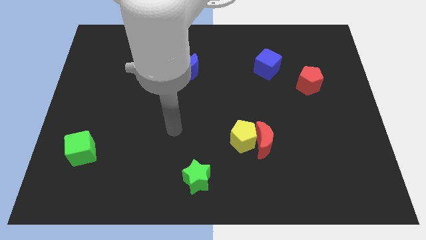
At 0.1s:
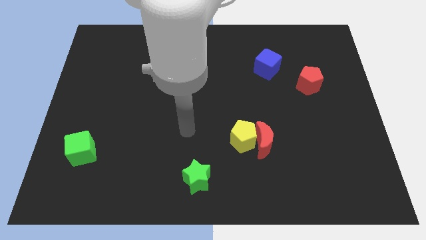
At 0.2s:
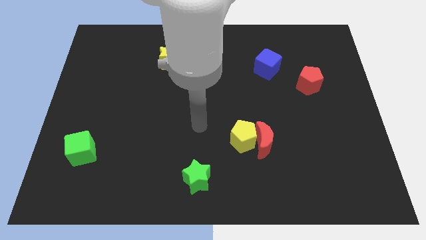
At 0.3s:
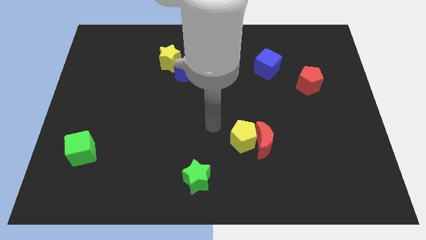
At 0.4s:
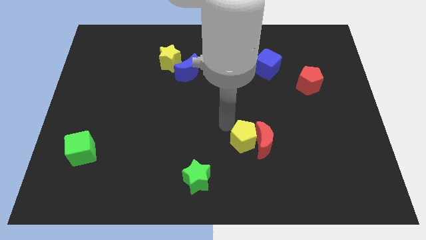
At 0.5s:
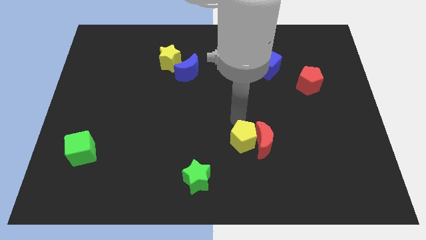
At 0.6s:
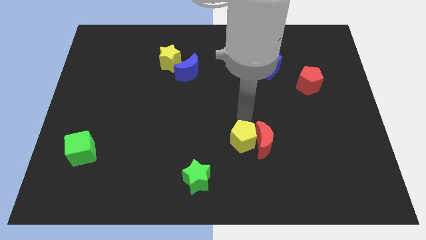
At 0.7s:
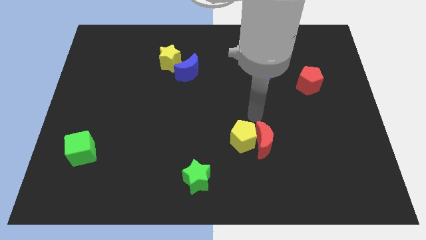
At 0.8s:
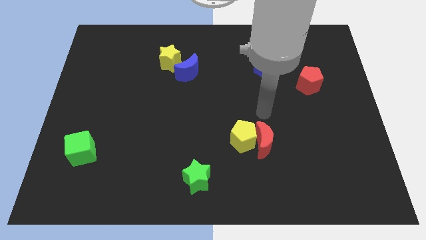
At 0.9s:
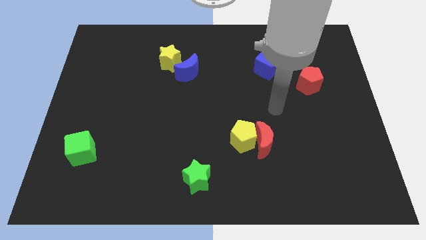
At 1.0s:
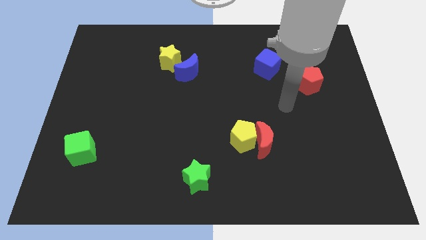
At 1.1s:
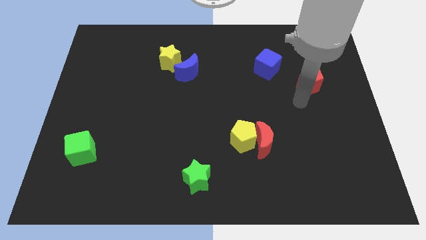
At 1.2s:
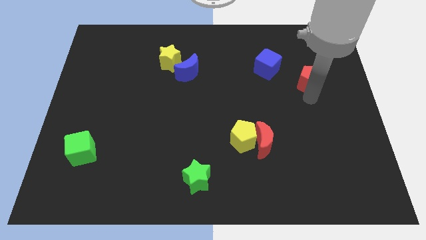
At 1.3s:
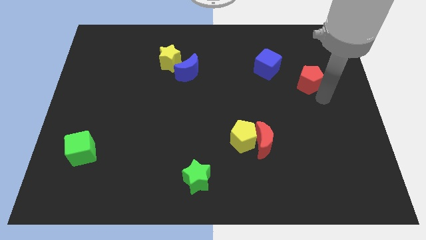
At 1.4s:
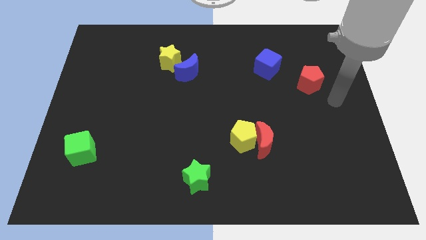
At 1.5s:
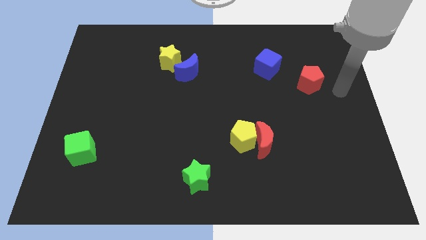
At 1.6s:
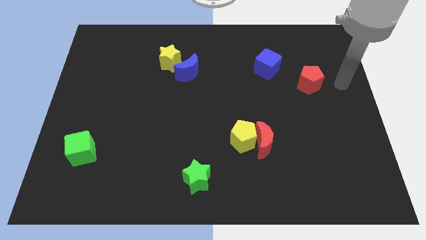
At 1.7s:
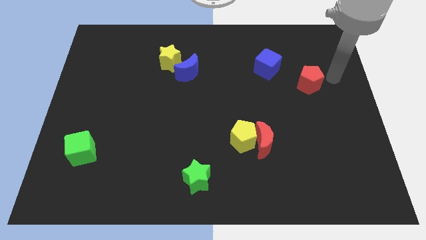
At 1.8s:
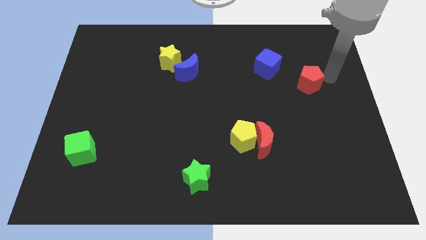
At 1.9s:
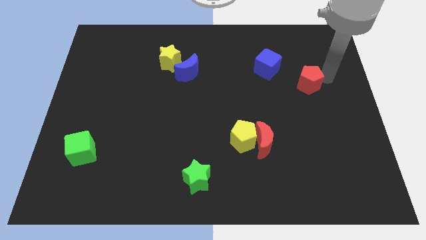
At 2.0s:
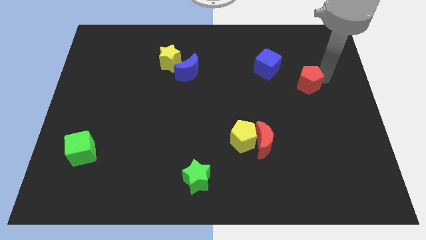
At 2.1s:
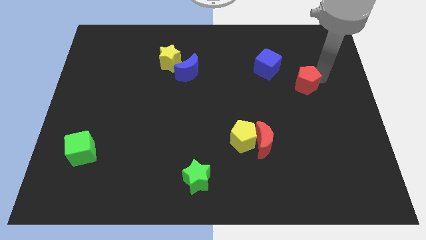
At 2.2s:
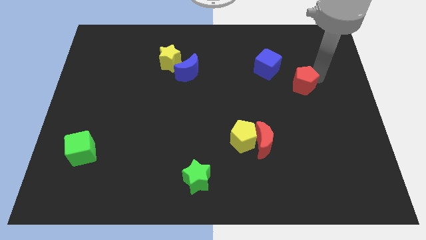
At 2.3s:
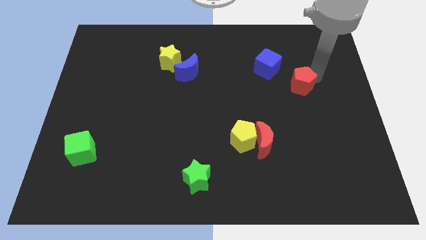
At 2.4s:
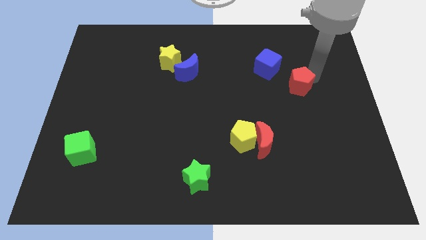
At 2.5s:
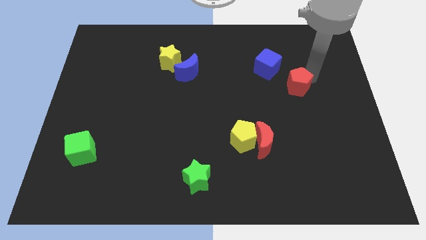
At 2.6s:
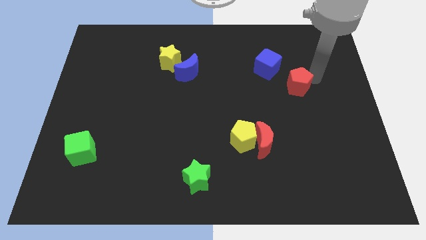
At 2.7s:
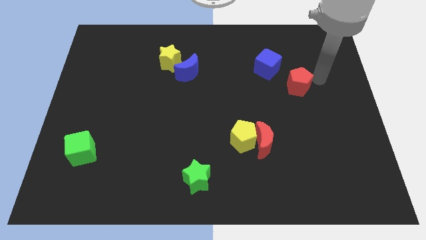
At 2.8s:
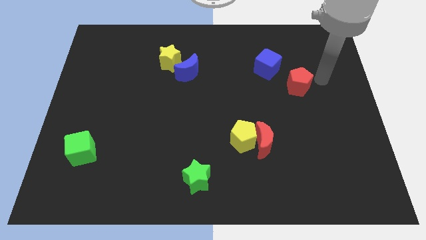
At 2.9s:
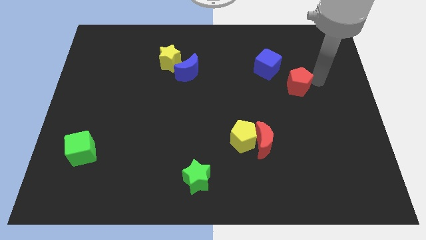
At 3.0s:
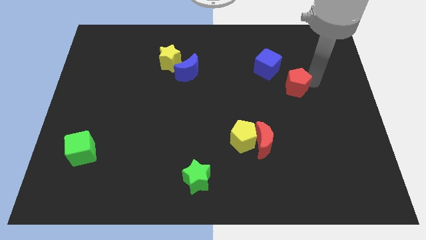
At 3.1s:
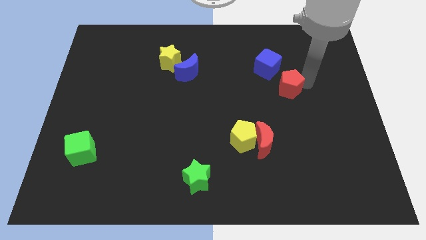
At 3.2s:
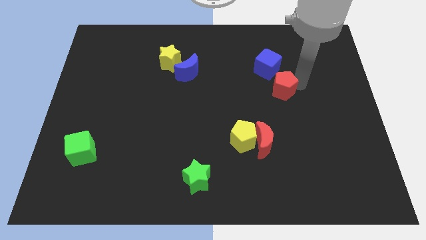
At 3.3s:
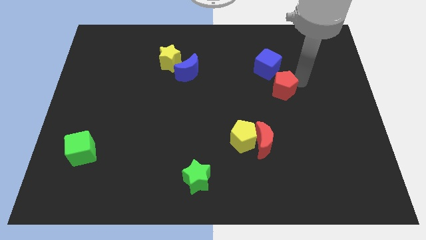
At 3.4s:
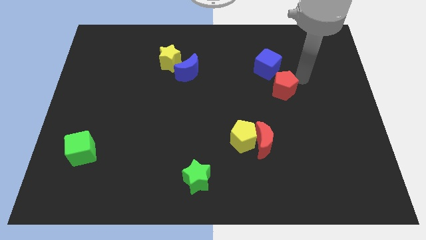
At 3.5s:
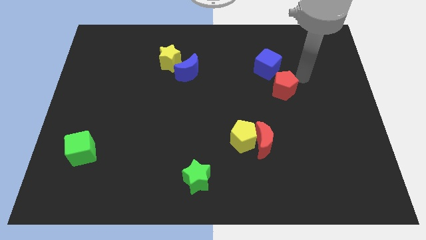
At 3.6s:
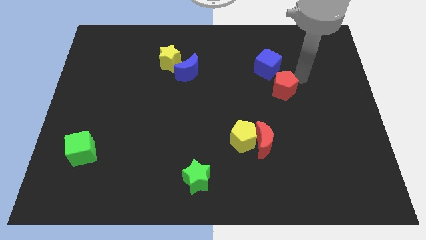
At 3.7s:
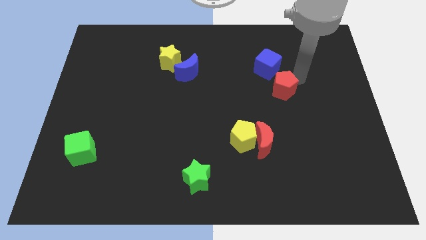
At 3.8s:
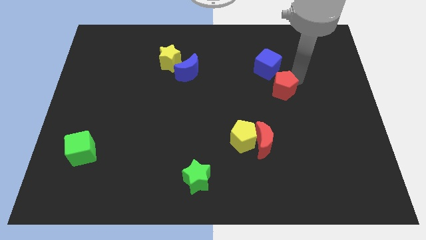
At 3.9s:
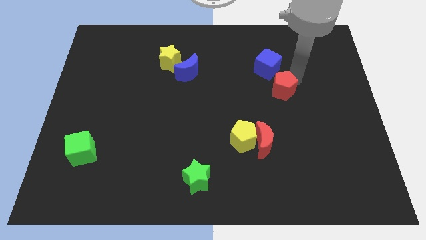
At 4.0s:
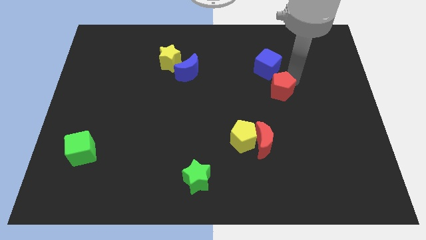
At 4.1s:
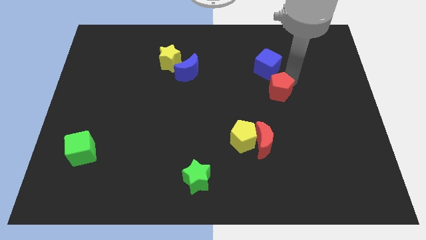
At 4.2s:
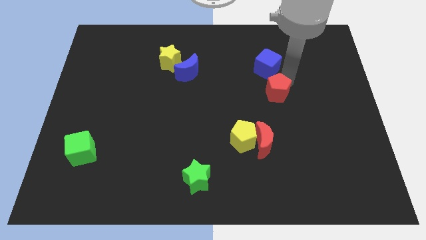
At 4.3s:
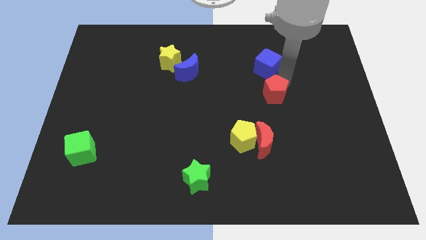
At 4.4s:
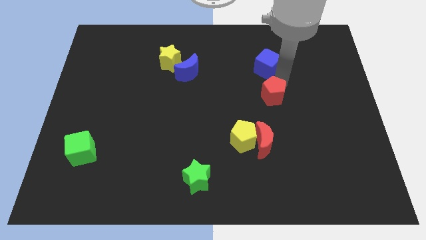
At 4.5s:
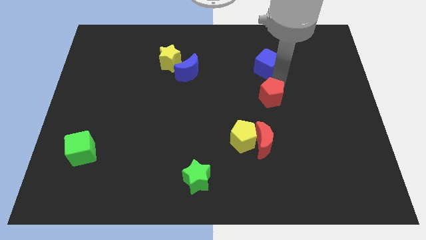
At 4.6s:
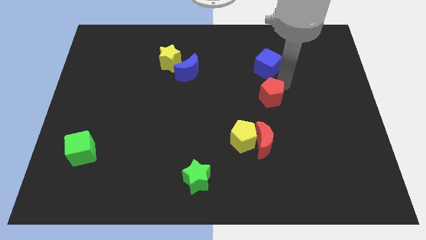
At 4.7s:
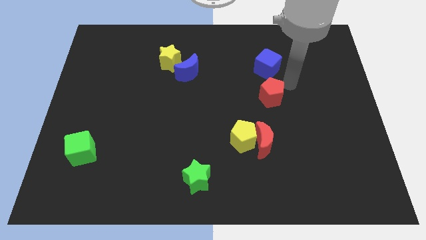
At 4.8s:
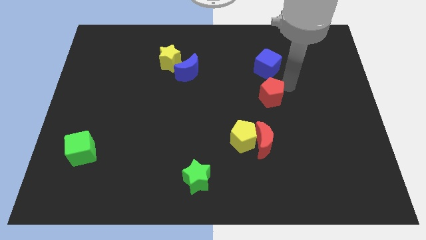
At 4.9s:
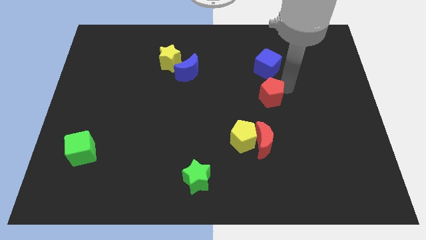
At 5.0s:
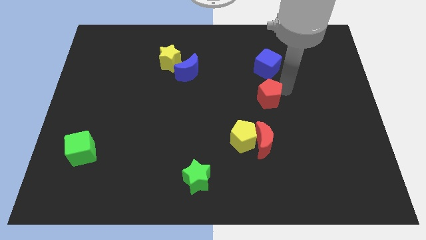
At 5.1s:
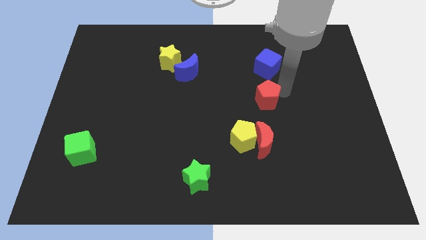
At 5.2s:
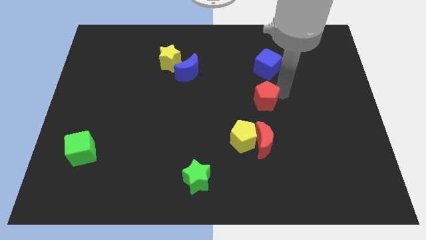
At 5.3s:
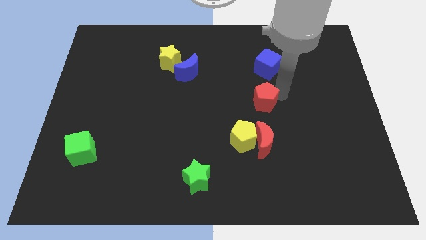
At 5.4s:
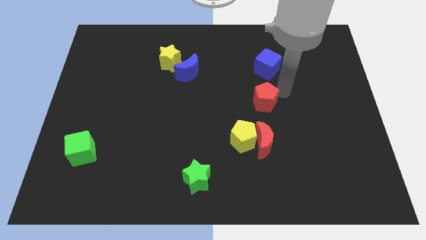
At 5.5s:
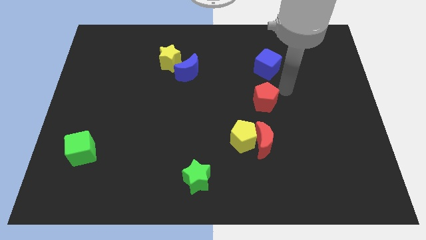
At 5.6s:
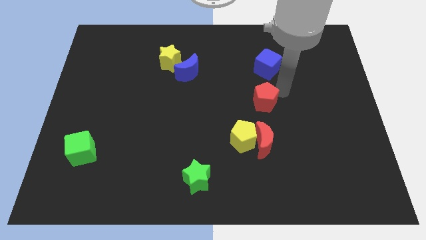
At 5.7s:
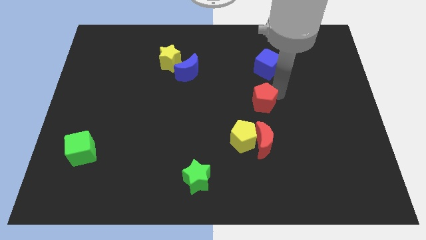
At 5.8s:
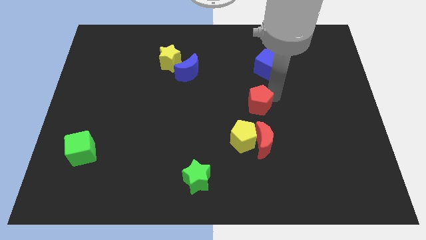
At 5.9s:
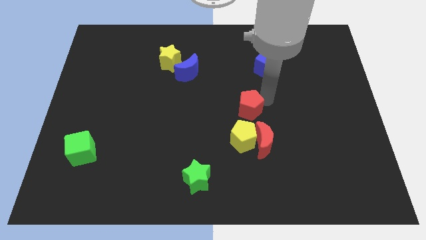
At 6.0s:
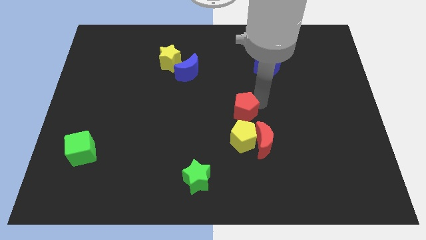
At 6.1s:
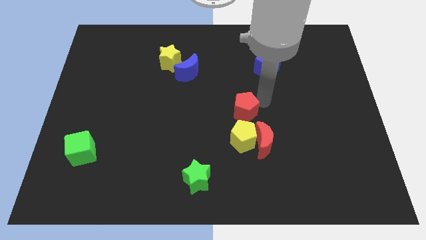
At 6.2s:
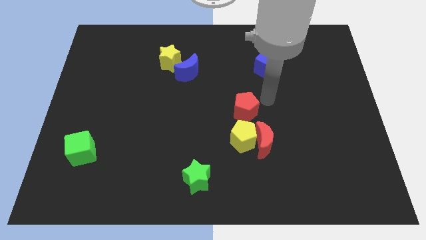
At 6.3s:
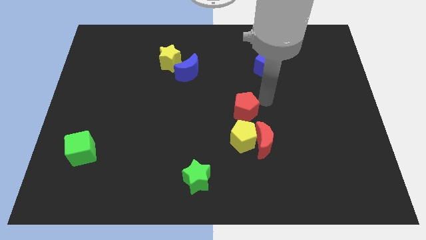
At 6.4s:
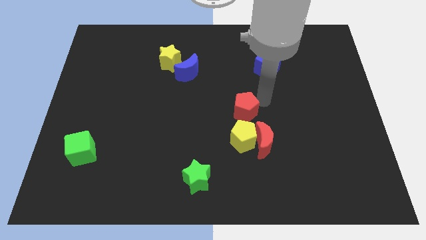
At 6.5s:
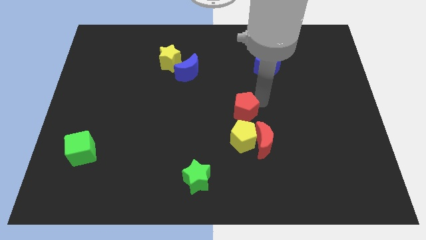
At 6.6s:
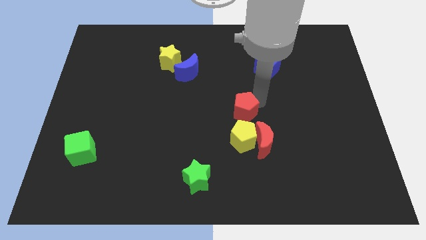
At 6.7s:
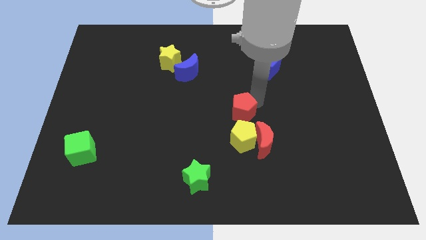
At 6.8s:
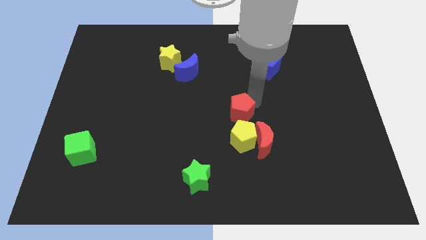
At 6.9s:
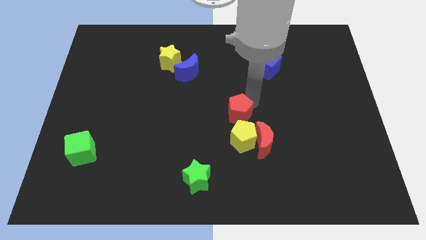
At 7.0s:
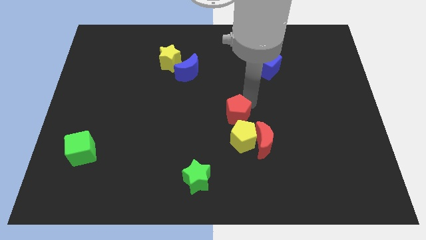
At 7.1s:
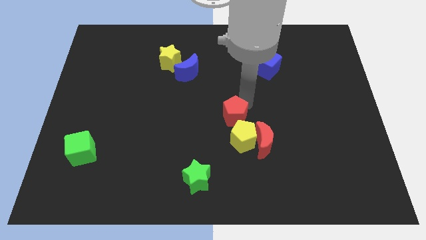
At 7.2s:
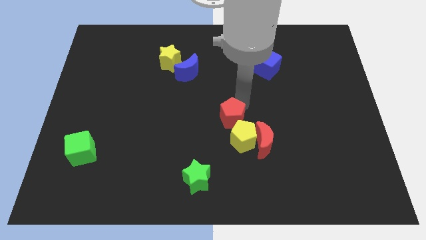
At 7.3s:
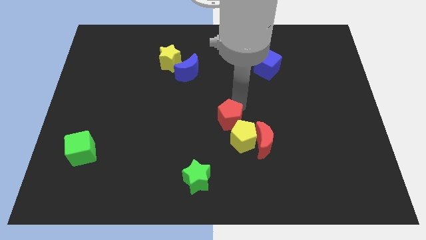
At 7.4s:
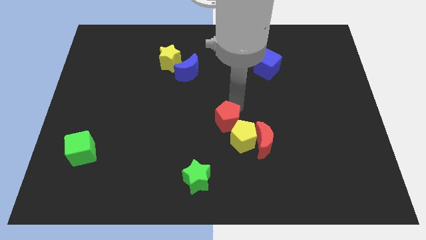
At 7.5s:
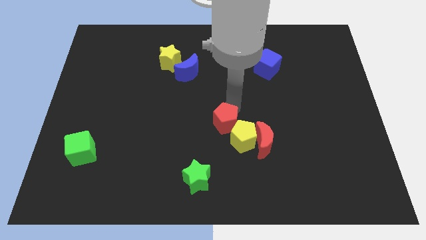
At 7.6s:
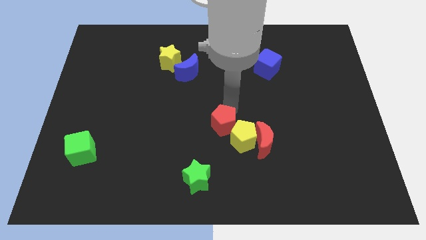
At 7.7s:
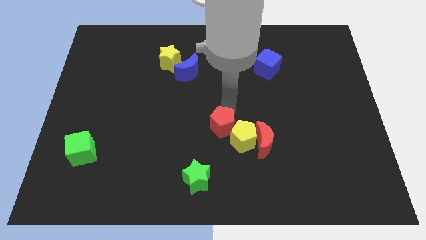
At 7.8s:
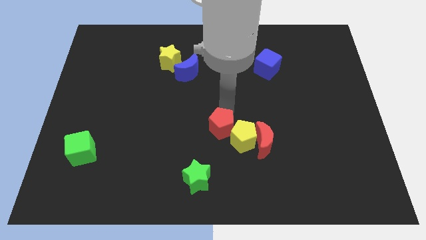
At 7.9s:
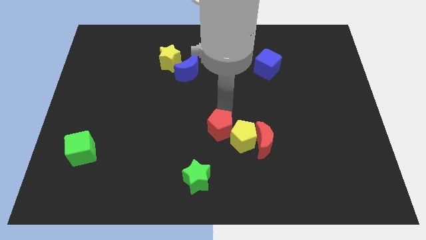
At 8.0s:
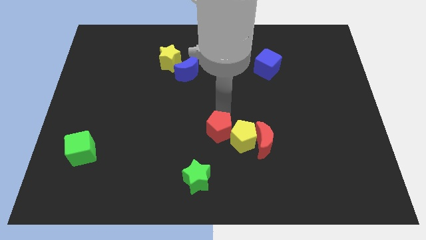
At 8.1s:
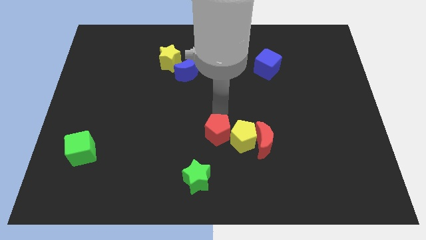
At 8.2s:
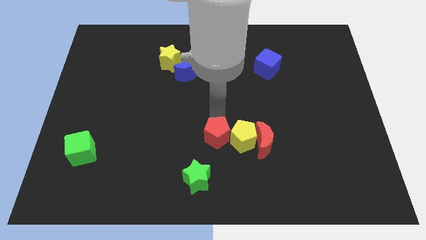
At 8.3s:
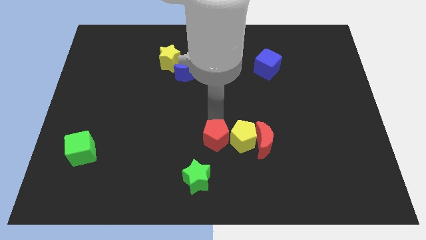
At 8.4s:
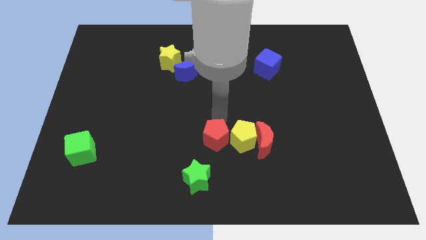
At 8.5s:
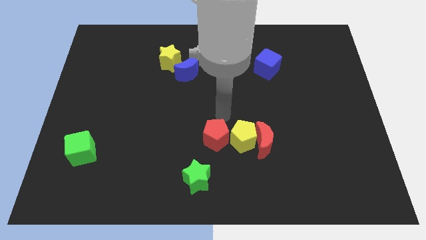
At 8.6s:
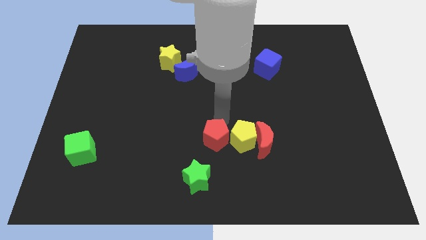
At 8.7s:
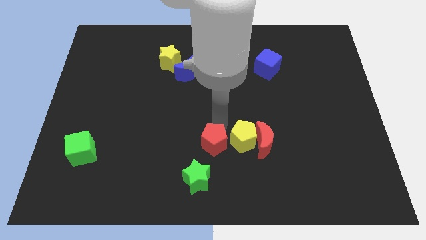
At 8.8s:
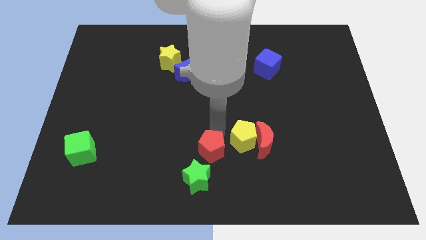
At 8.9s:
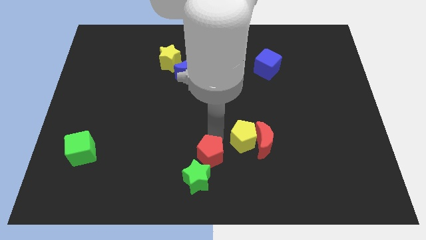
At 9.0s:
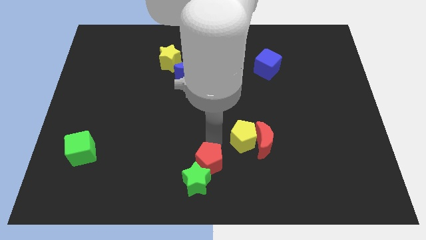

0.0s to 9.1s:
push the red pentagon to the green star
